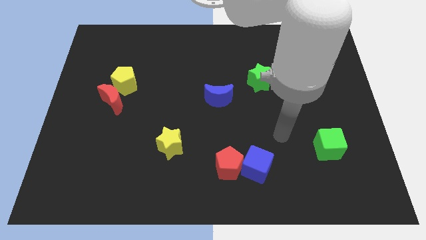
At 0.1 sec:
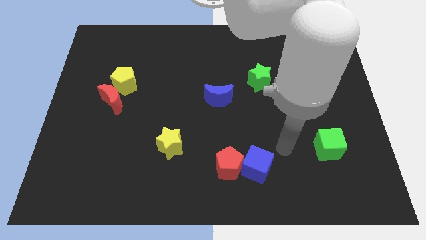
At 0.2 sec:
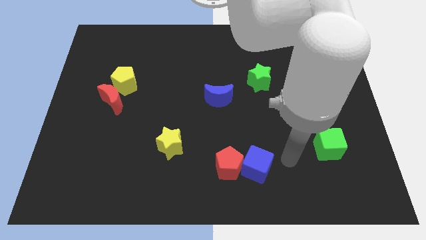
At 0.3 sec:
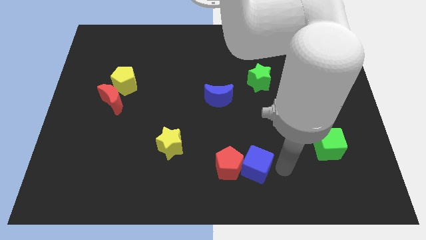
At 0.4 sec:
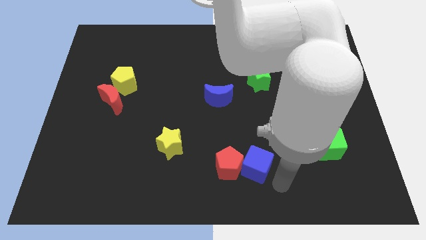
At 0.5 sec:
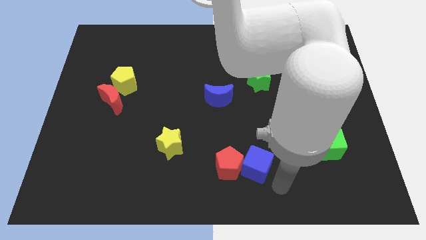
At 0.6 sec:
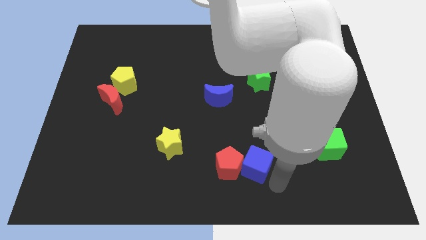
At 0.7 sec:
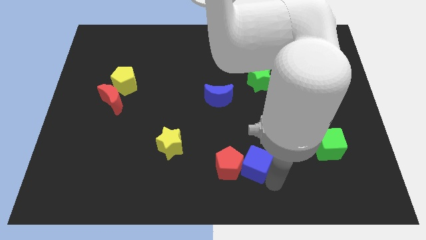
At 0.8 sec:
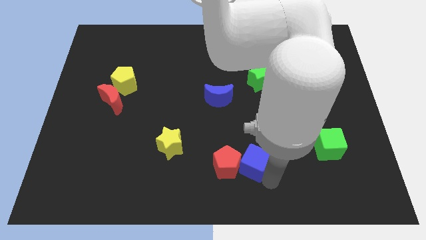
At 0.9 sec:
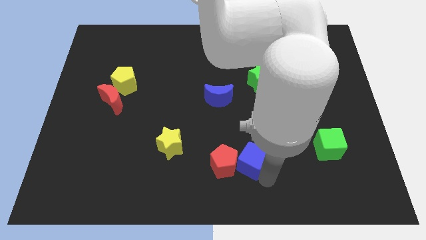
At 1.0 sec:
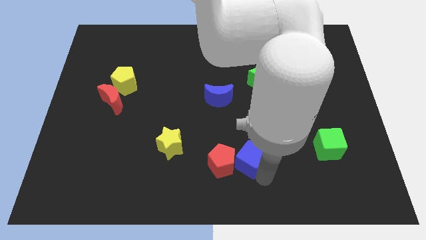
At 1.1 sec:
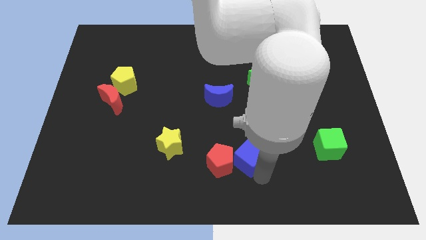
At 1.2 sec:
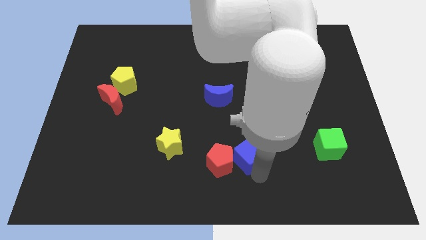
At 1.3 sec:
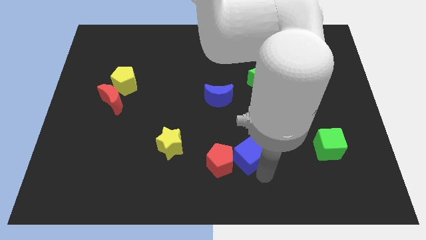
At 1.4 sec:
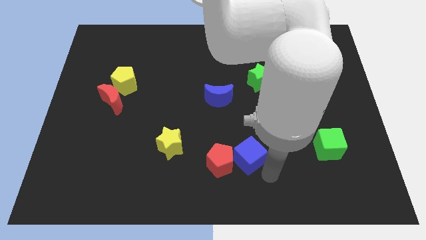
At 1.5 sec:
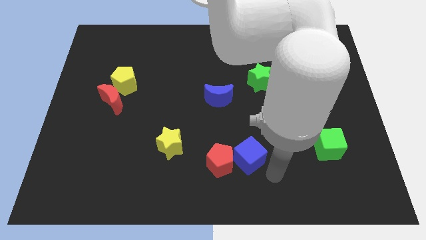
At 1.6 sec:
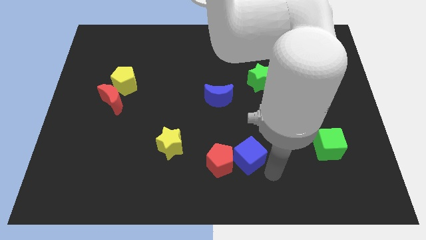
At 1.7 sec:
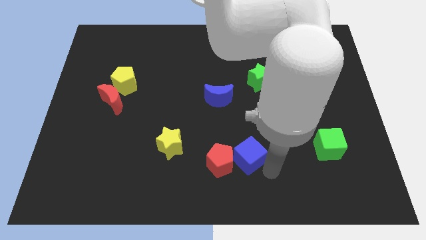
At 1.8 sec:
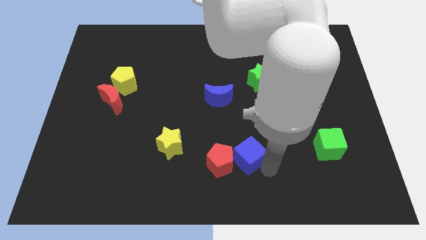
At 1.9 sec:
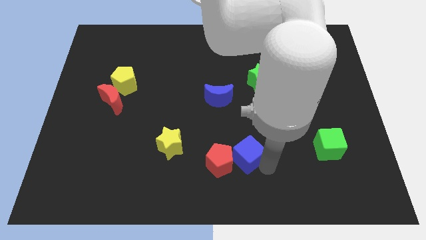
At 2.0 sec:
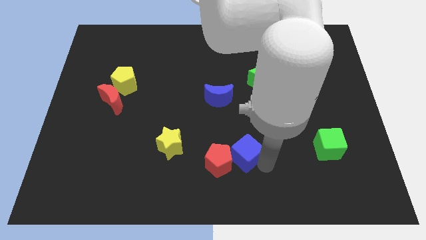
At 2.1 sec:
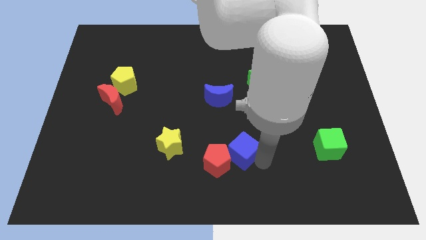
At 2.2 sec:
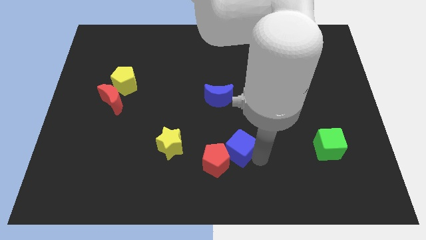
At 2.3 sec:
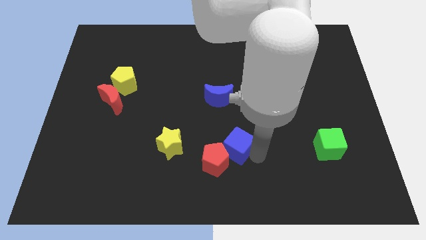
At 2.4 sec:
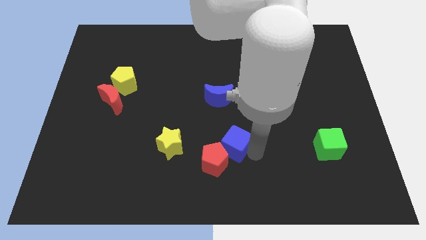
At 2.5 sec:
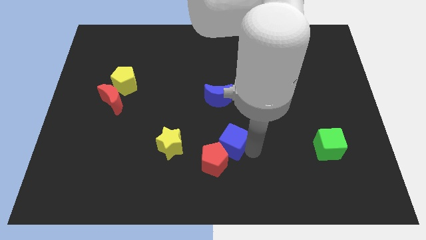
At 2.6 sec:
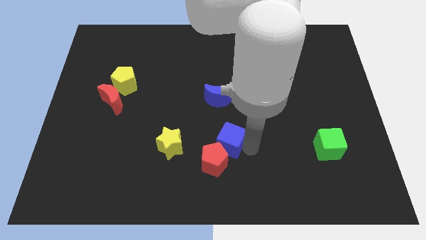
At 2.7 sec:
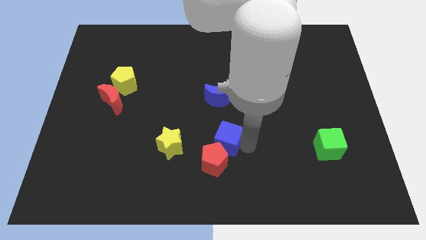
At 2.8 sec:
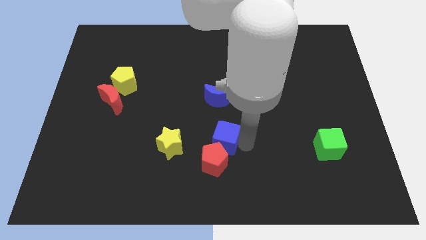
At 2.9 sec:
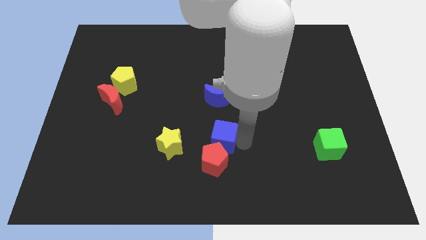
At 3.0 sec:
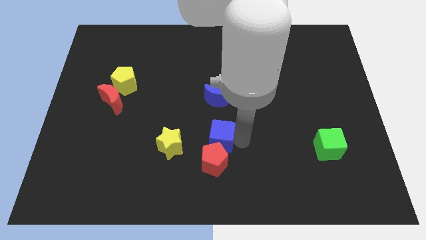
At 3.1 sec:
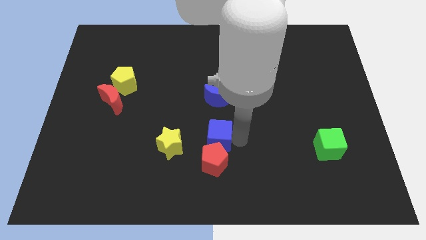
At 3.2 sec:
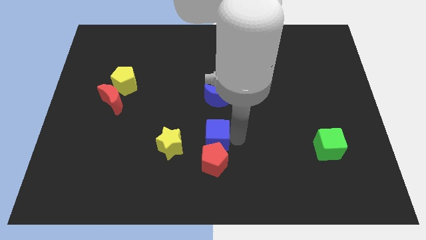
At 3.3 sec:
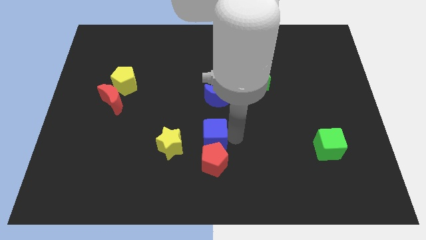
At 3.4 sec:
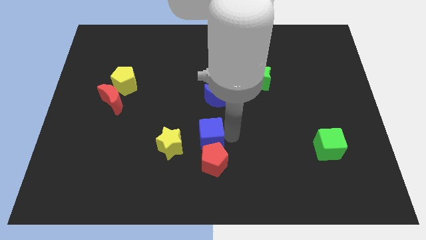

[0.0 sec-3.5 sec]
push the blue cube left slightly

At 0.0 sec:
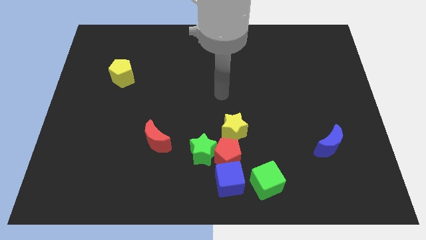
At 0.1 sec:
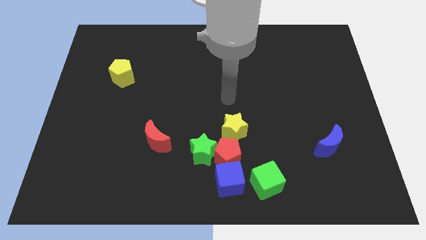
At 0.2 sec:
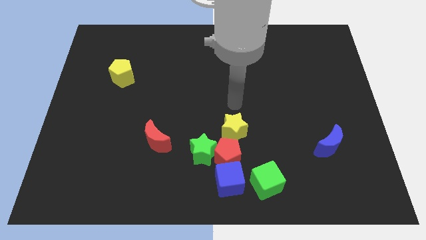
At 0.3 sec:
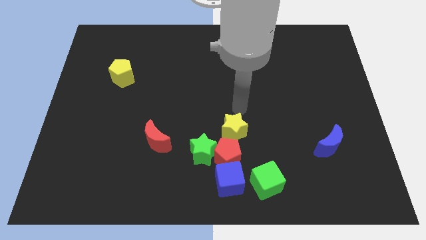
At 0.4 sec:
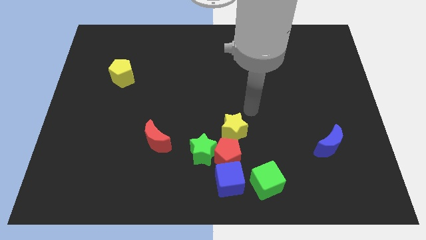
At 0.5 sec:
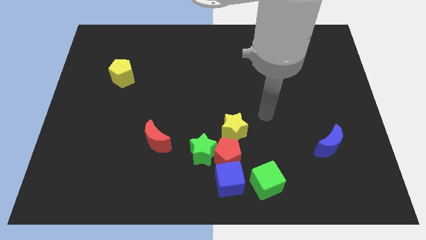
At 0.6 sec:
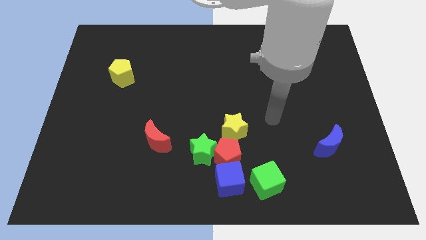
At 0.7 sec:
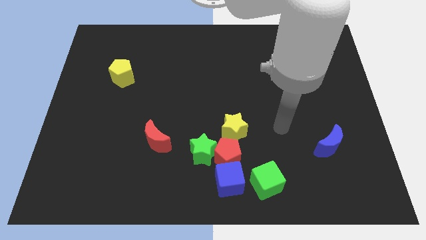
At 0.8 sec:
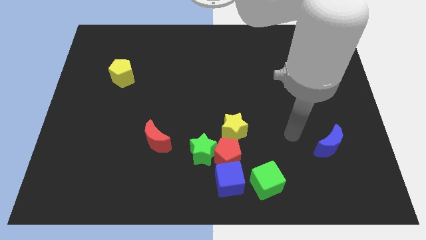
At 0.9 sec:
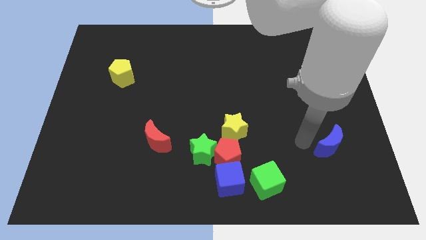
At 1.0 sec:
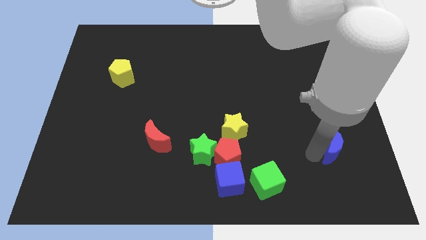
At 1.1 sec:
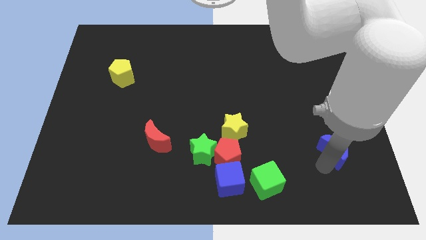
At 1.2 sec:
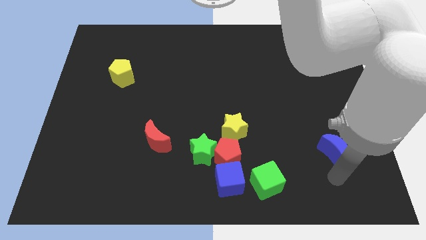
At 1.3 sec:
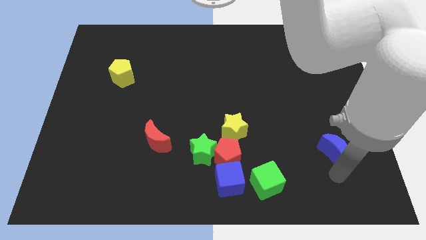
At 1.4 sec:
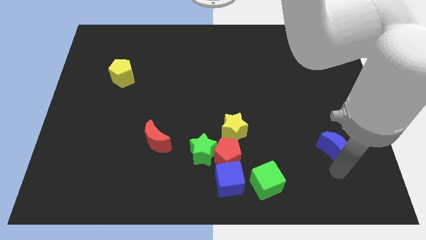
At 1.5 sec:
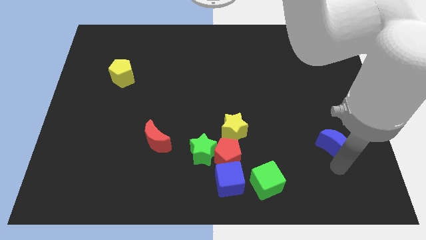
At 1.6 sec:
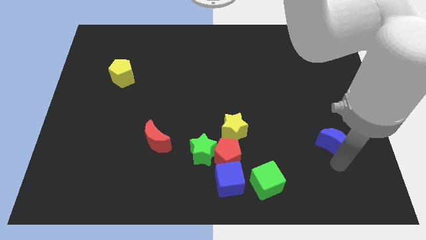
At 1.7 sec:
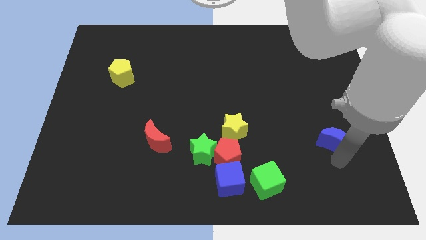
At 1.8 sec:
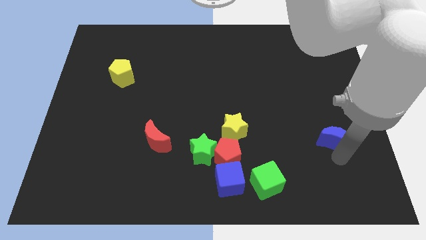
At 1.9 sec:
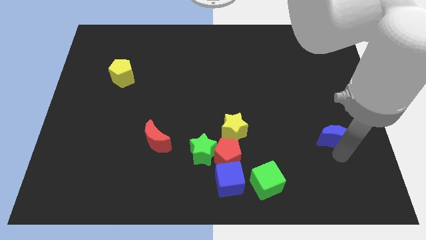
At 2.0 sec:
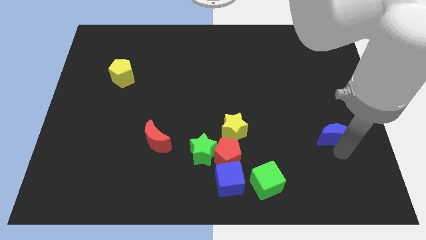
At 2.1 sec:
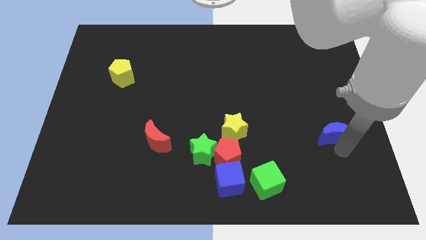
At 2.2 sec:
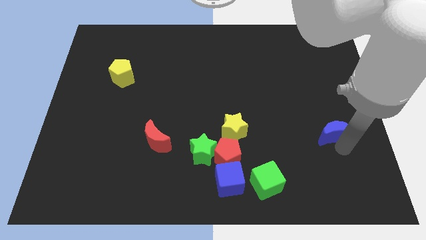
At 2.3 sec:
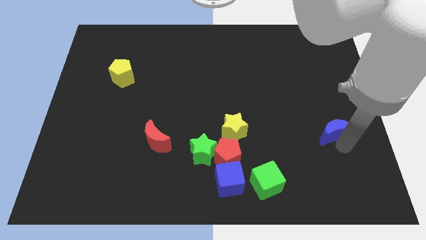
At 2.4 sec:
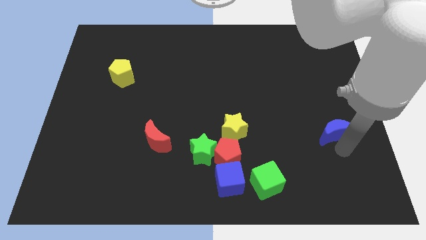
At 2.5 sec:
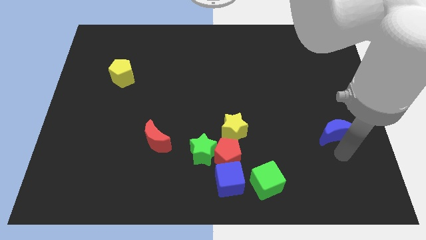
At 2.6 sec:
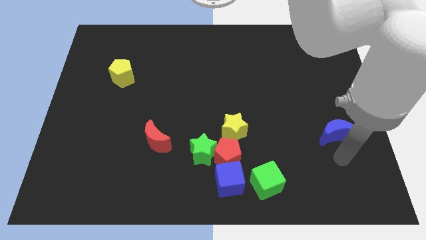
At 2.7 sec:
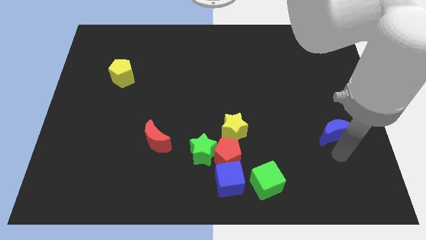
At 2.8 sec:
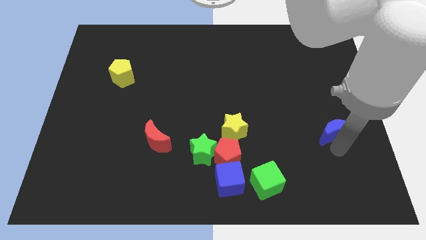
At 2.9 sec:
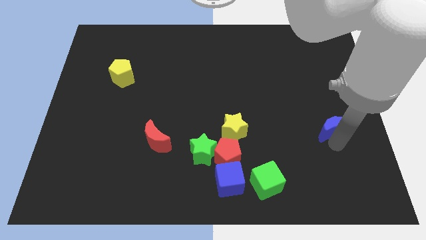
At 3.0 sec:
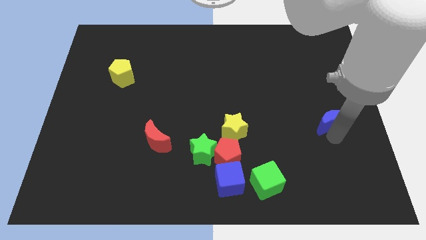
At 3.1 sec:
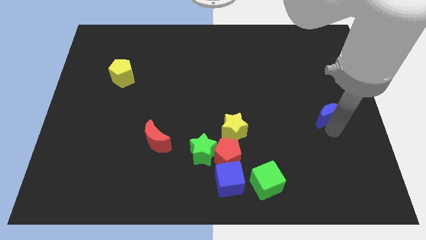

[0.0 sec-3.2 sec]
slide the blue moon a little up

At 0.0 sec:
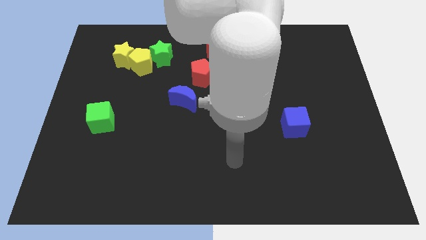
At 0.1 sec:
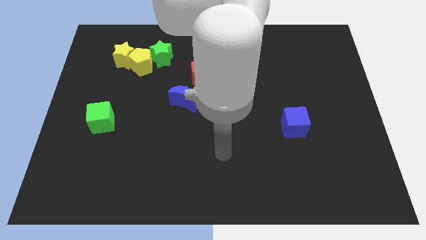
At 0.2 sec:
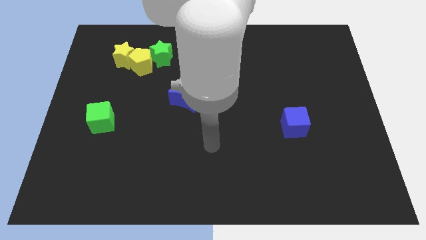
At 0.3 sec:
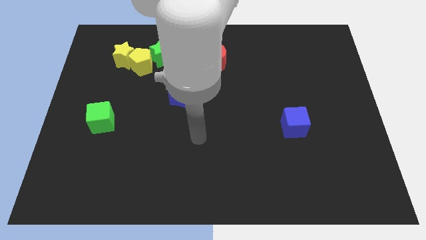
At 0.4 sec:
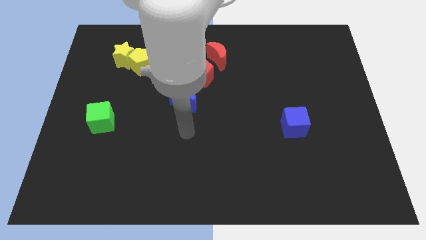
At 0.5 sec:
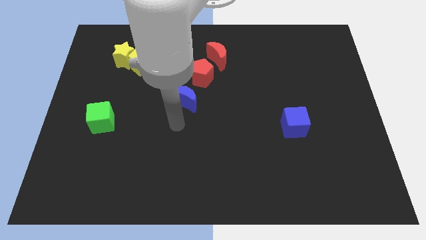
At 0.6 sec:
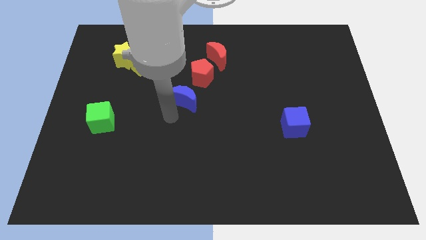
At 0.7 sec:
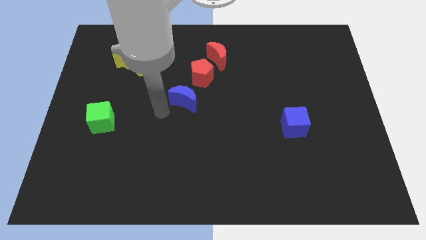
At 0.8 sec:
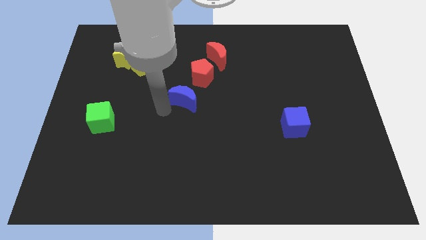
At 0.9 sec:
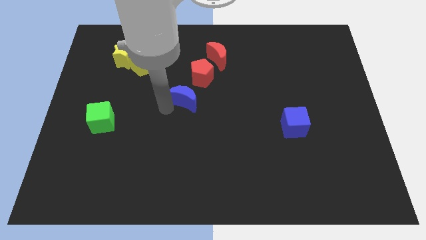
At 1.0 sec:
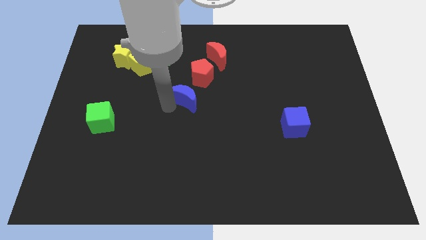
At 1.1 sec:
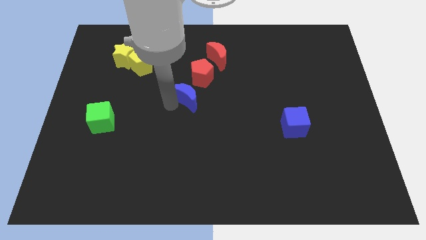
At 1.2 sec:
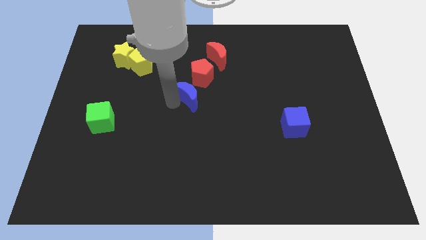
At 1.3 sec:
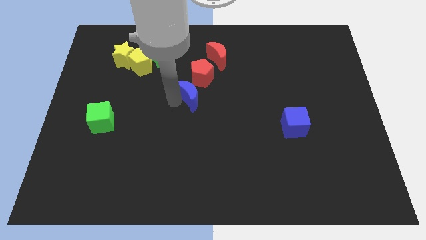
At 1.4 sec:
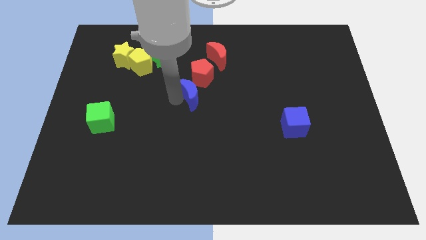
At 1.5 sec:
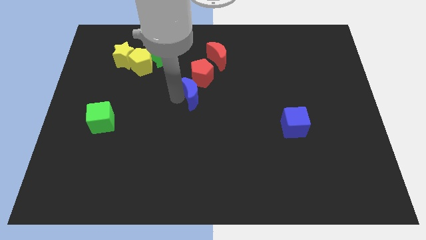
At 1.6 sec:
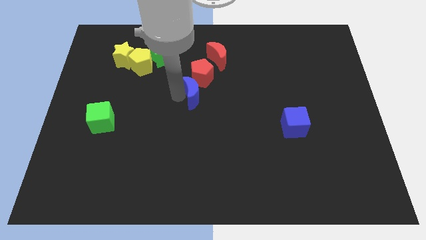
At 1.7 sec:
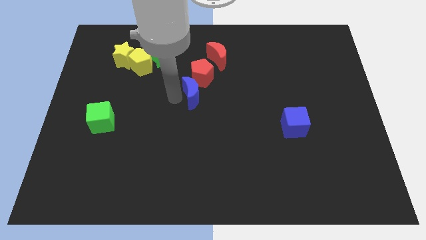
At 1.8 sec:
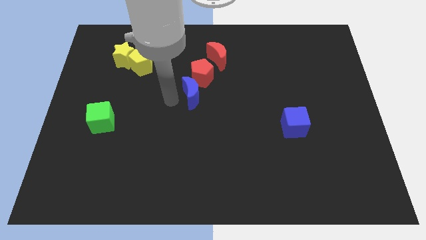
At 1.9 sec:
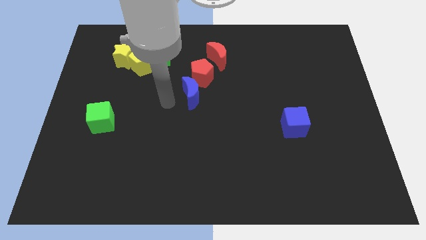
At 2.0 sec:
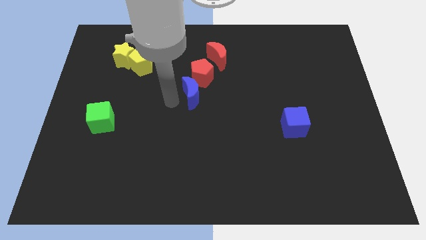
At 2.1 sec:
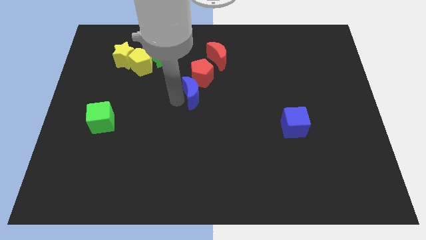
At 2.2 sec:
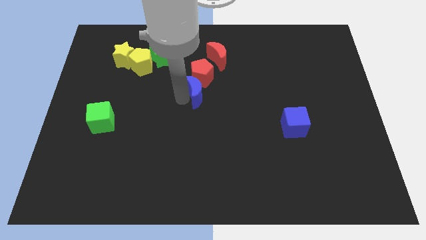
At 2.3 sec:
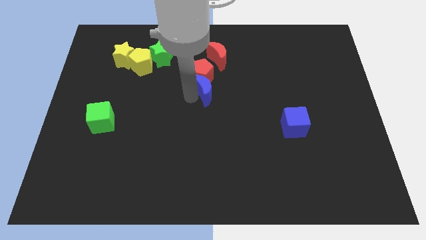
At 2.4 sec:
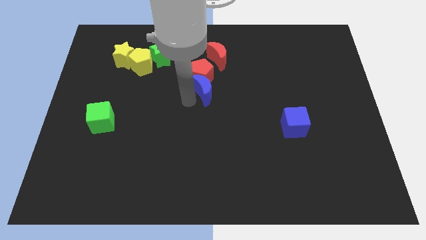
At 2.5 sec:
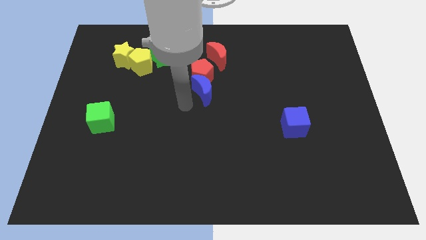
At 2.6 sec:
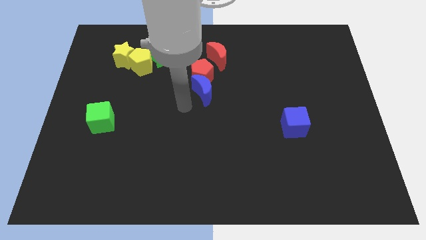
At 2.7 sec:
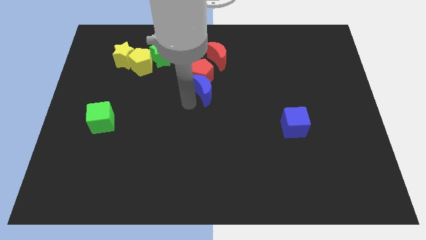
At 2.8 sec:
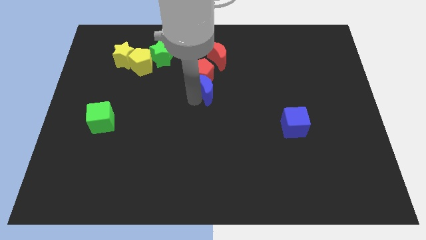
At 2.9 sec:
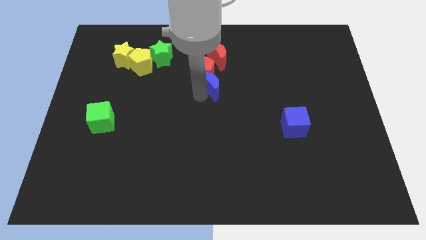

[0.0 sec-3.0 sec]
slightly move the blue moon diagonally upwards and to the right
